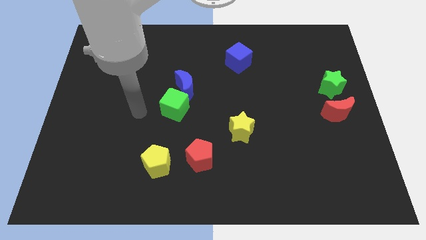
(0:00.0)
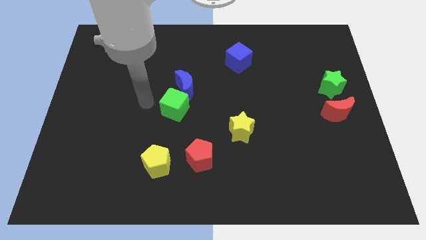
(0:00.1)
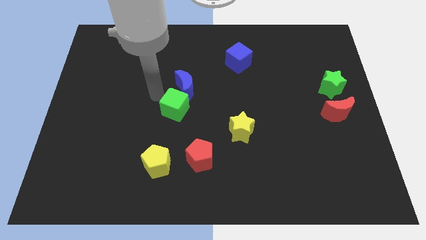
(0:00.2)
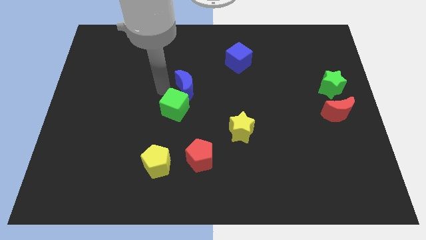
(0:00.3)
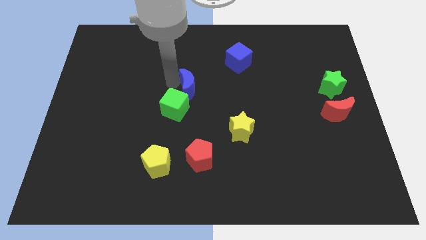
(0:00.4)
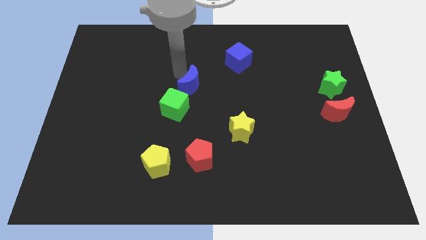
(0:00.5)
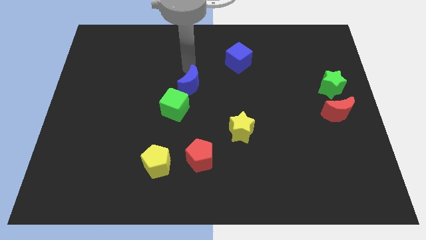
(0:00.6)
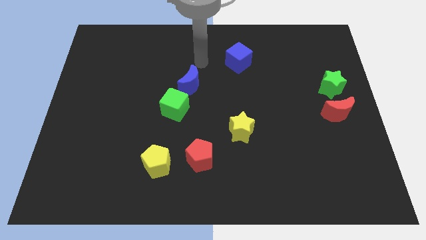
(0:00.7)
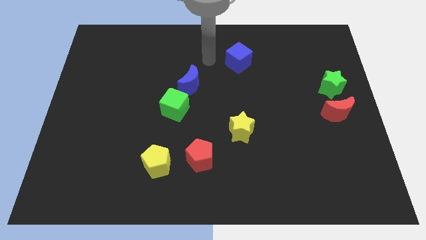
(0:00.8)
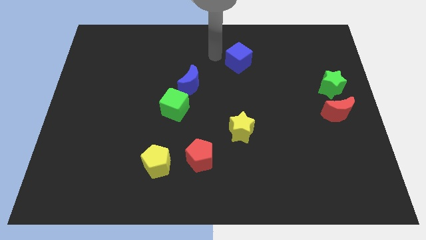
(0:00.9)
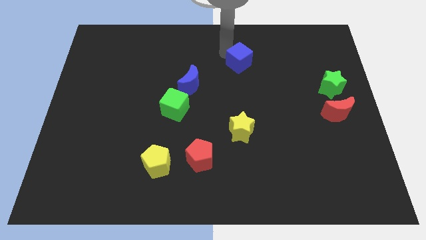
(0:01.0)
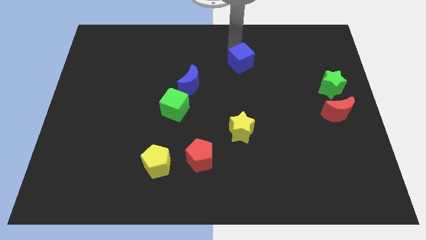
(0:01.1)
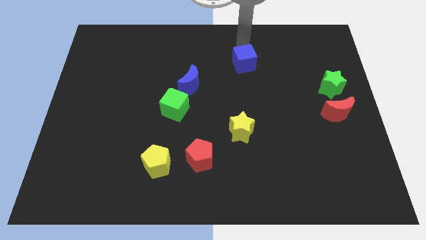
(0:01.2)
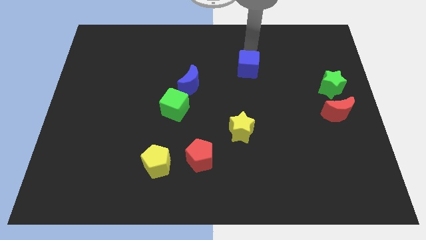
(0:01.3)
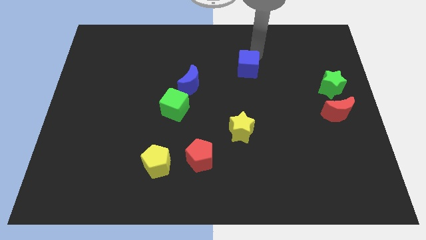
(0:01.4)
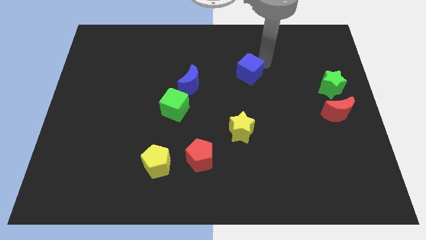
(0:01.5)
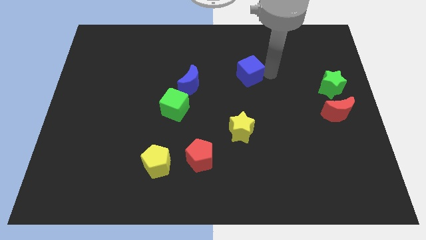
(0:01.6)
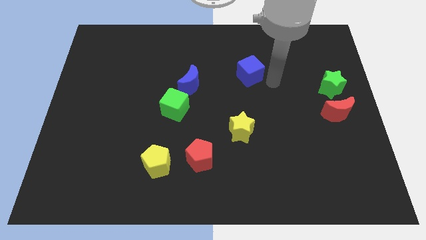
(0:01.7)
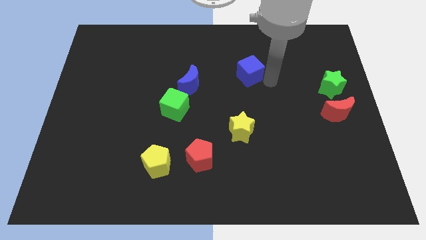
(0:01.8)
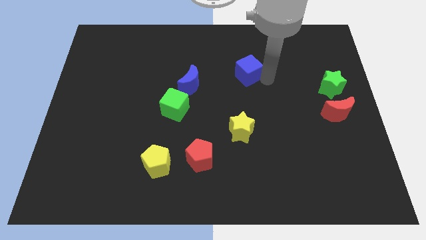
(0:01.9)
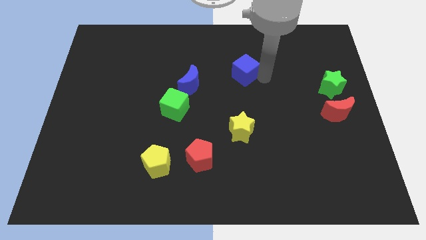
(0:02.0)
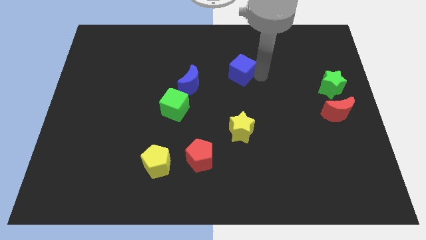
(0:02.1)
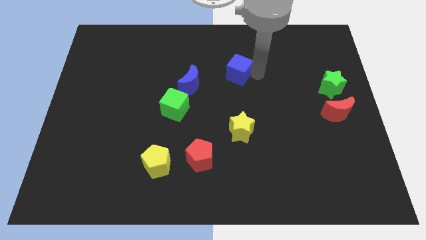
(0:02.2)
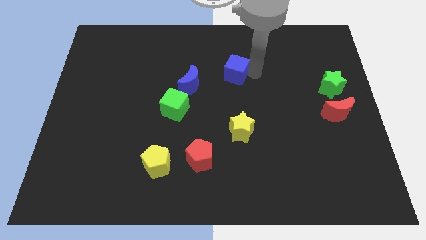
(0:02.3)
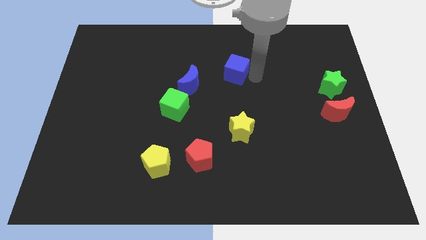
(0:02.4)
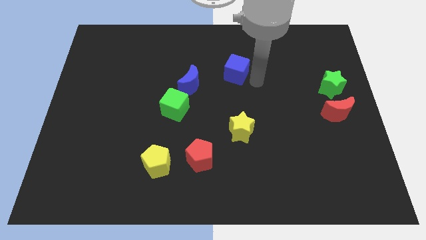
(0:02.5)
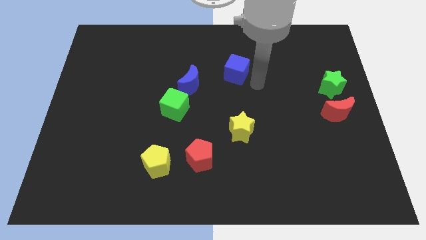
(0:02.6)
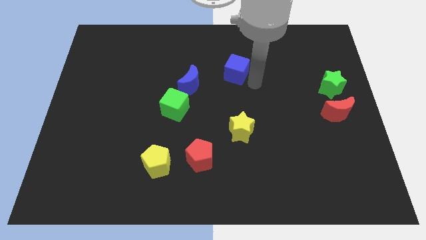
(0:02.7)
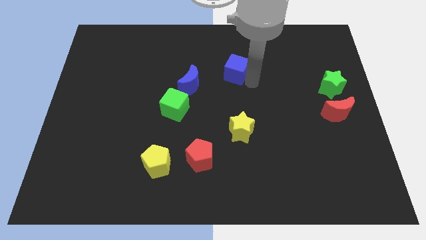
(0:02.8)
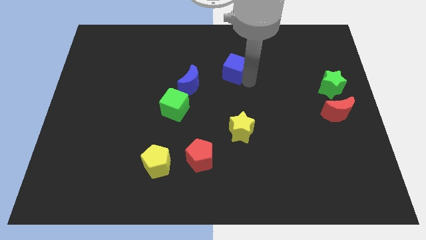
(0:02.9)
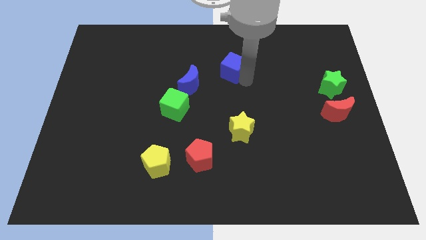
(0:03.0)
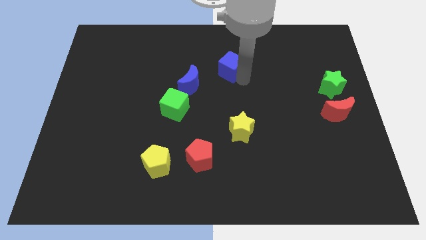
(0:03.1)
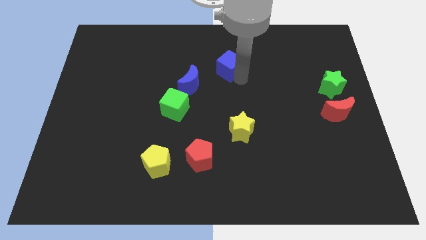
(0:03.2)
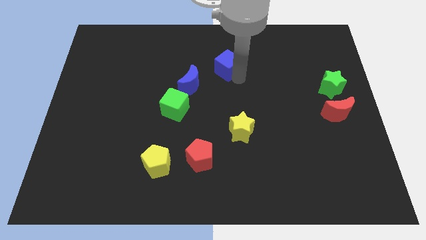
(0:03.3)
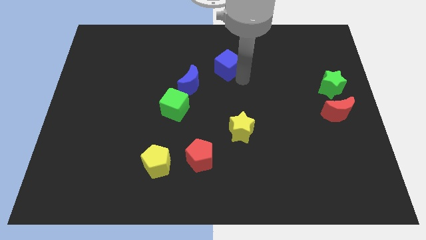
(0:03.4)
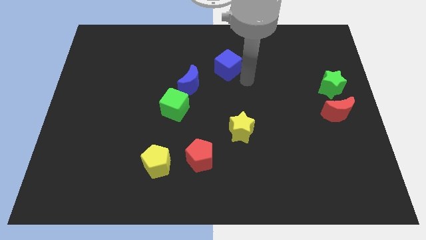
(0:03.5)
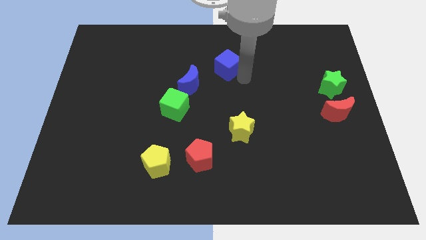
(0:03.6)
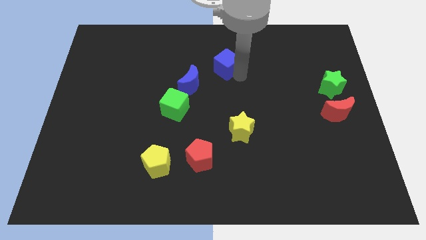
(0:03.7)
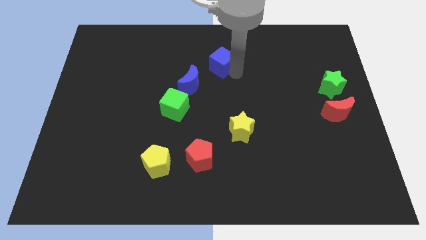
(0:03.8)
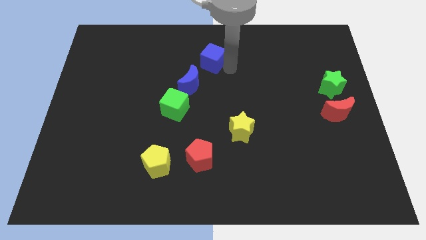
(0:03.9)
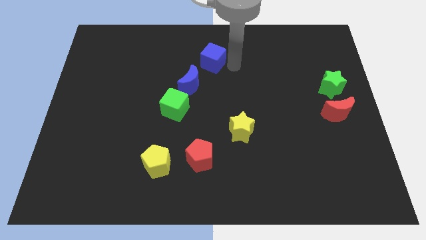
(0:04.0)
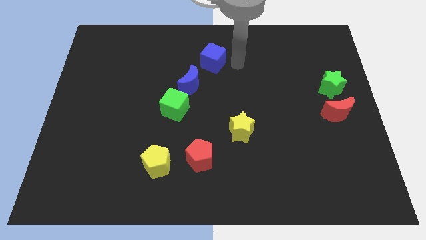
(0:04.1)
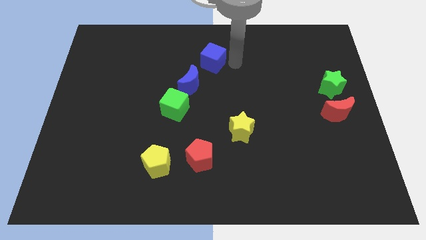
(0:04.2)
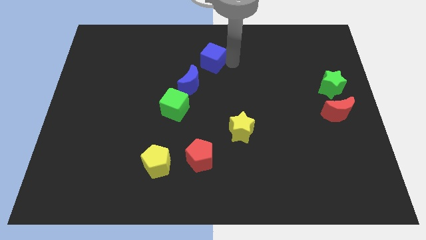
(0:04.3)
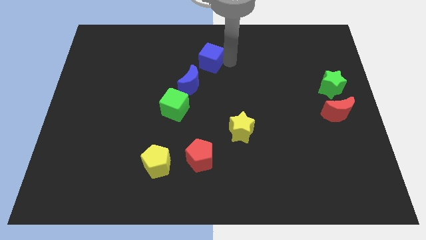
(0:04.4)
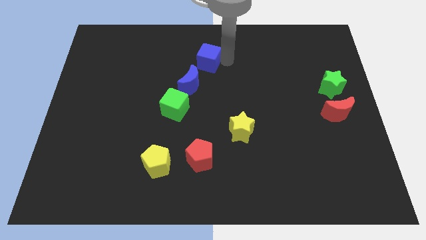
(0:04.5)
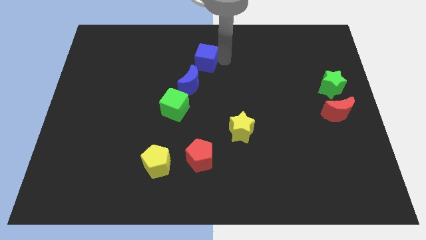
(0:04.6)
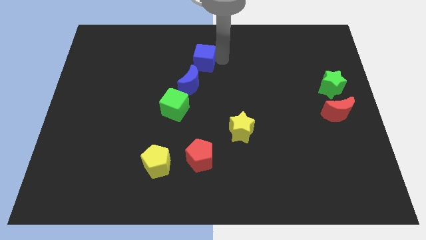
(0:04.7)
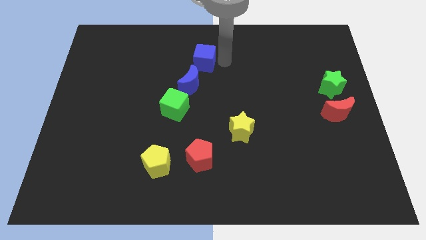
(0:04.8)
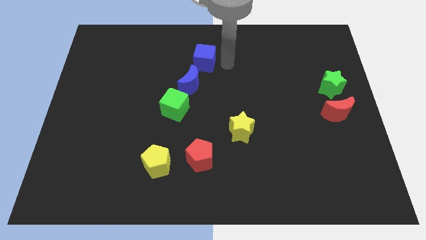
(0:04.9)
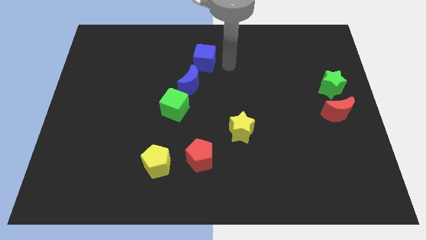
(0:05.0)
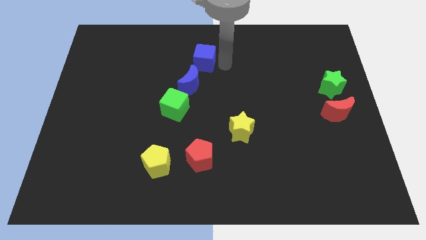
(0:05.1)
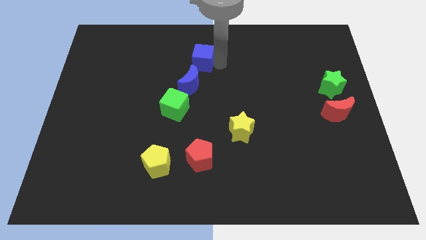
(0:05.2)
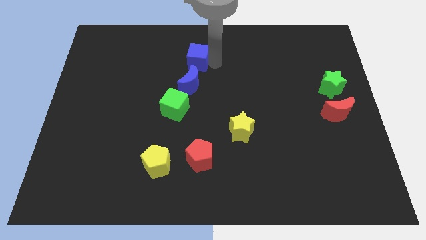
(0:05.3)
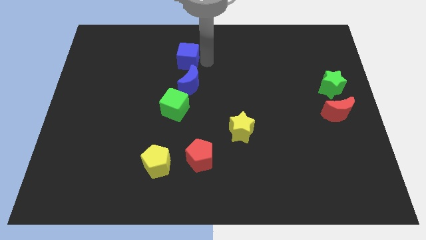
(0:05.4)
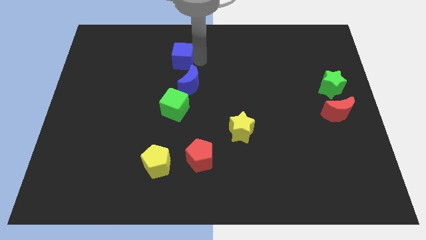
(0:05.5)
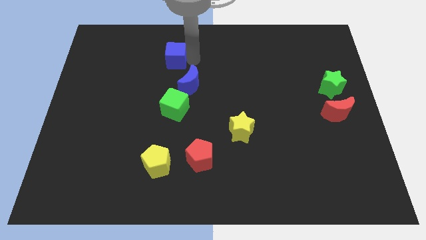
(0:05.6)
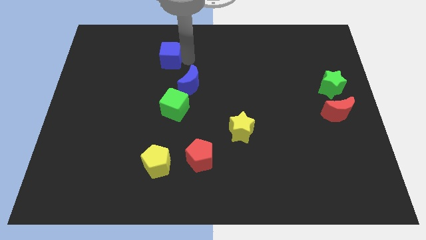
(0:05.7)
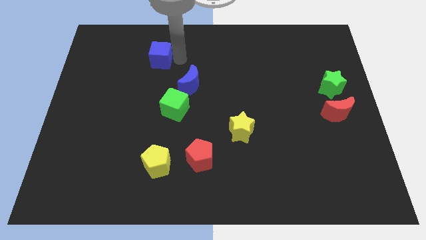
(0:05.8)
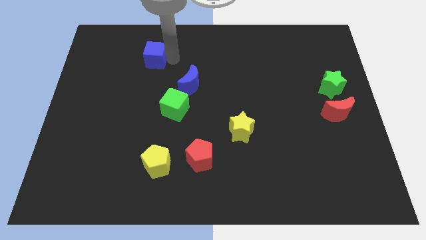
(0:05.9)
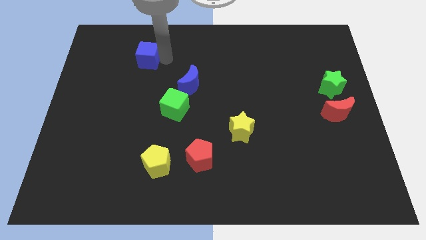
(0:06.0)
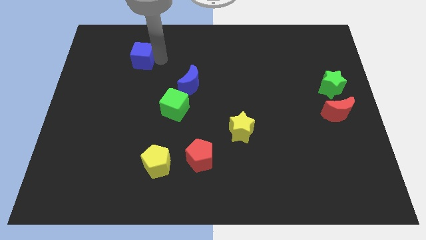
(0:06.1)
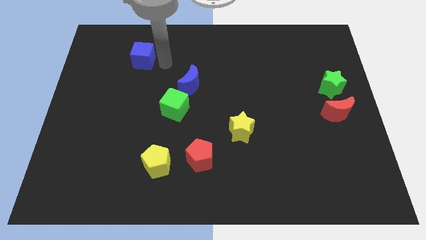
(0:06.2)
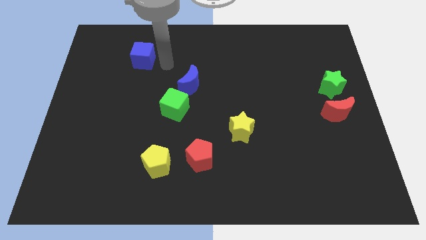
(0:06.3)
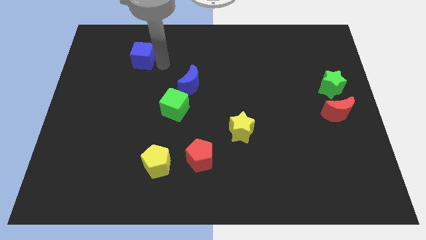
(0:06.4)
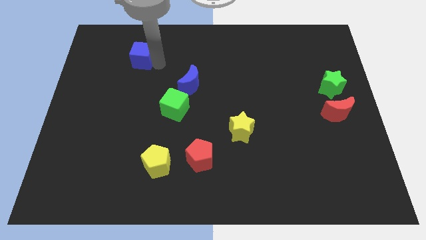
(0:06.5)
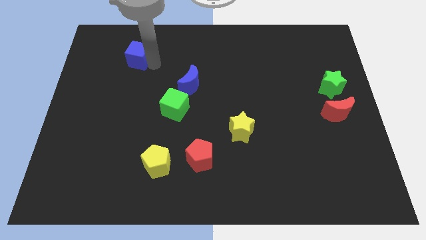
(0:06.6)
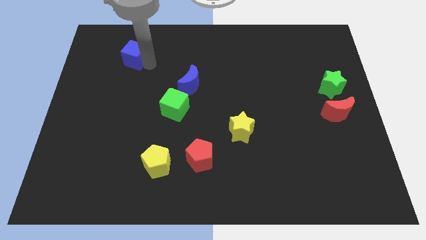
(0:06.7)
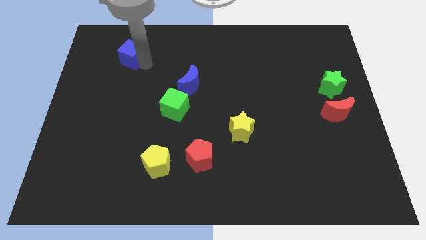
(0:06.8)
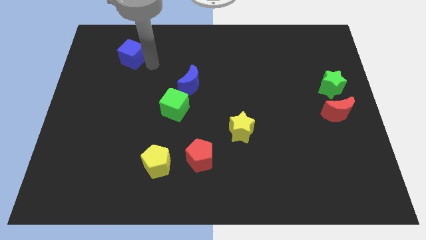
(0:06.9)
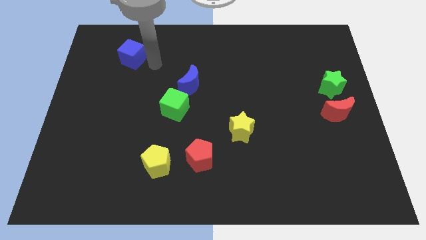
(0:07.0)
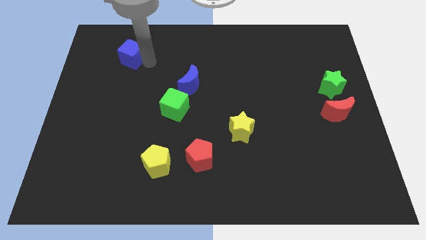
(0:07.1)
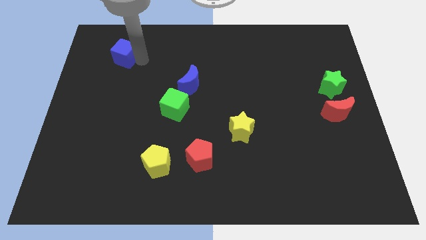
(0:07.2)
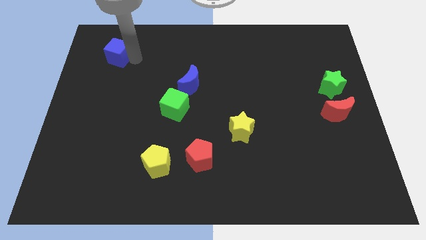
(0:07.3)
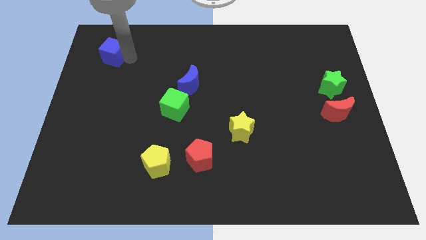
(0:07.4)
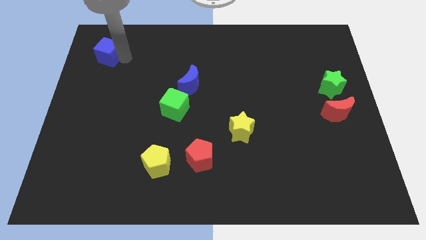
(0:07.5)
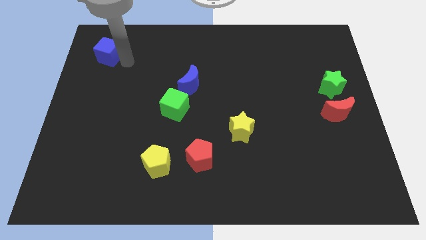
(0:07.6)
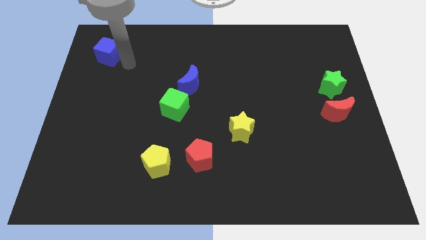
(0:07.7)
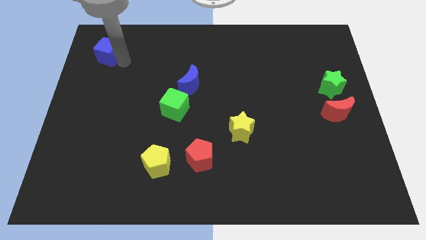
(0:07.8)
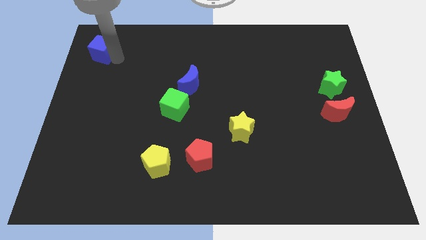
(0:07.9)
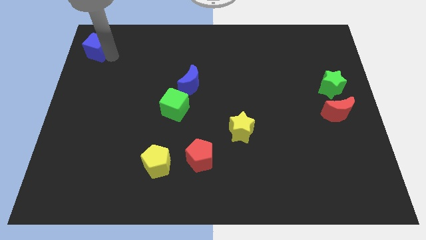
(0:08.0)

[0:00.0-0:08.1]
slide the blue cube to the top left corner
